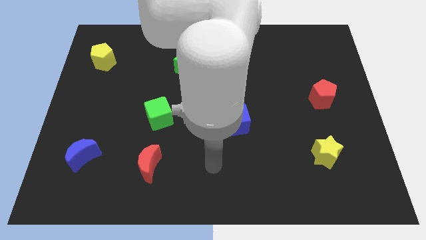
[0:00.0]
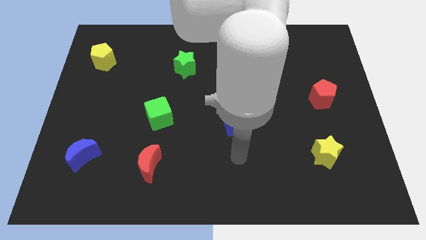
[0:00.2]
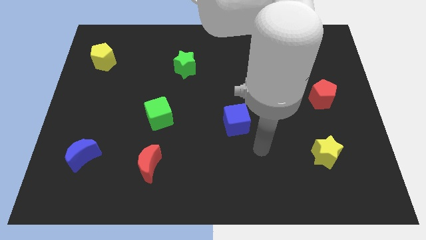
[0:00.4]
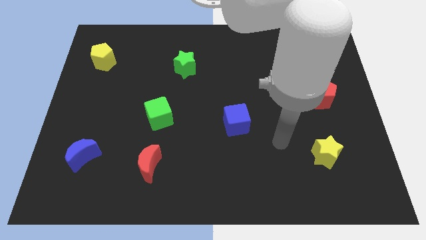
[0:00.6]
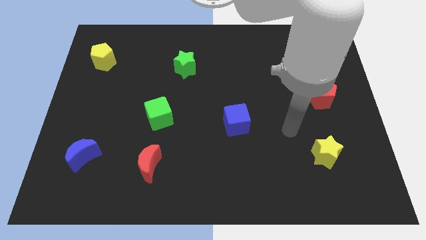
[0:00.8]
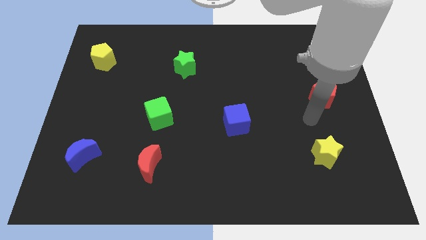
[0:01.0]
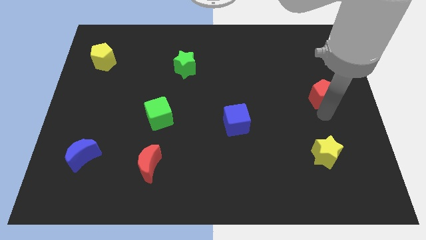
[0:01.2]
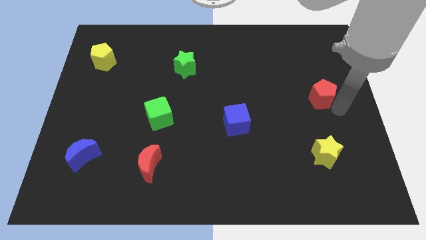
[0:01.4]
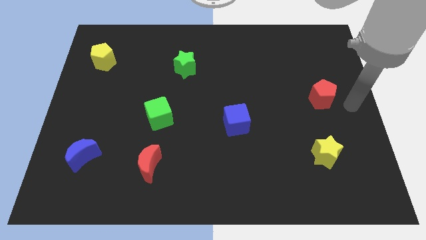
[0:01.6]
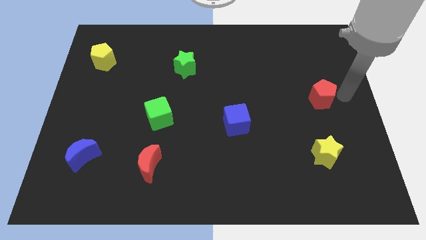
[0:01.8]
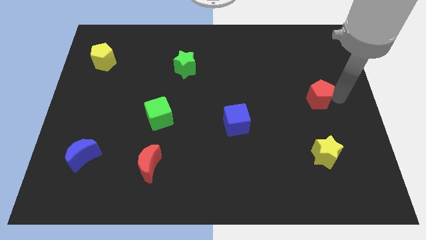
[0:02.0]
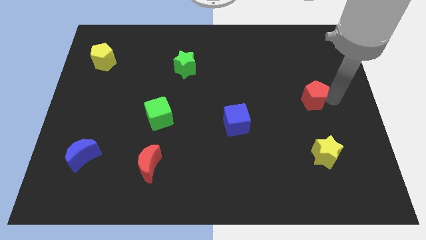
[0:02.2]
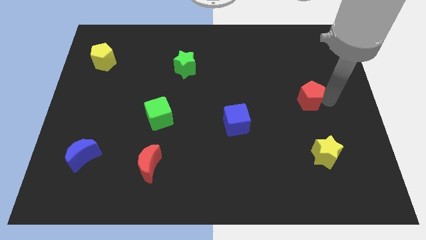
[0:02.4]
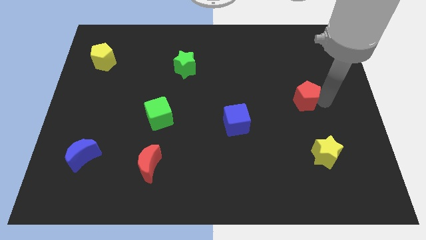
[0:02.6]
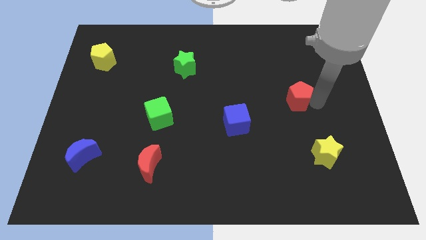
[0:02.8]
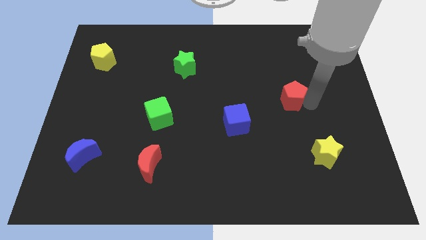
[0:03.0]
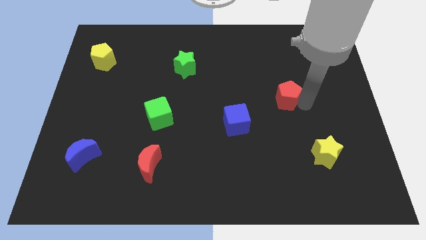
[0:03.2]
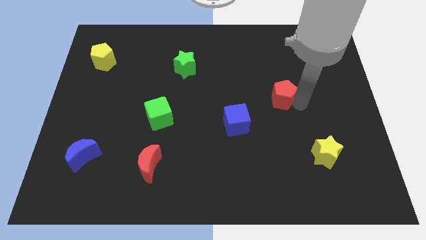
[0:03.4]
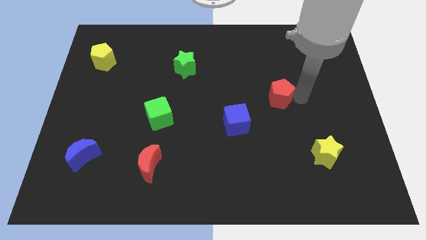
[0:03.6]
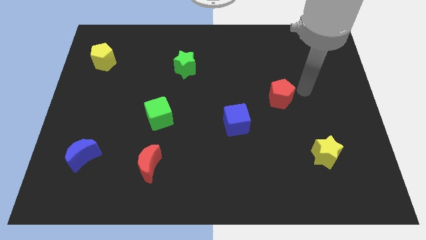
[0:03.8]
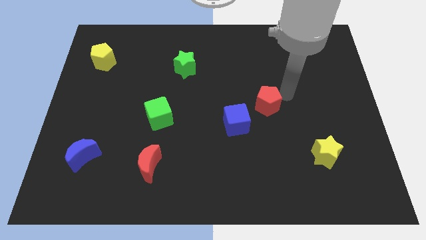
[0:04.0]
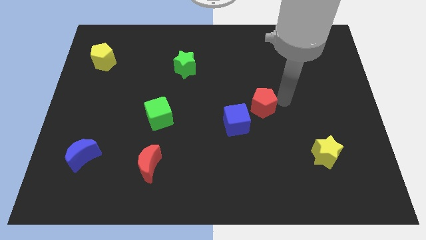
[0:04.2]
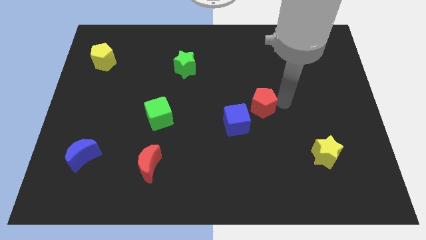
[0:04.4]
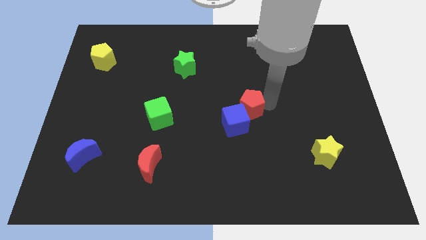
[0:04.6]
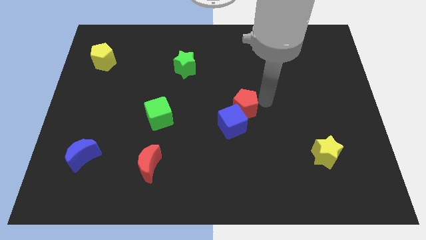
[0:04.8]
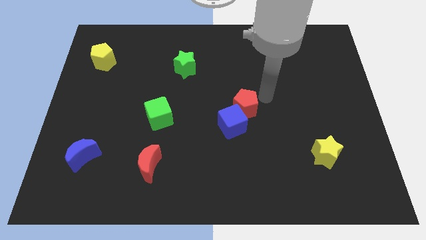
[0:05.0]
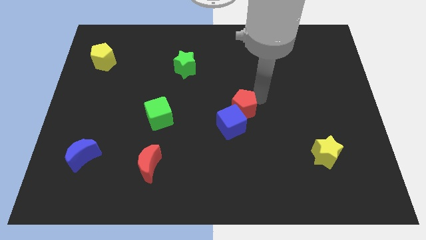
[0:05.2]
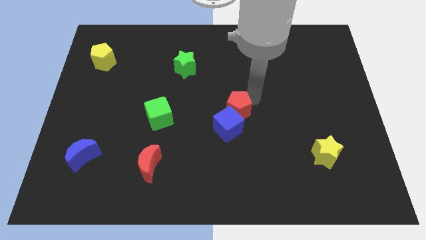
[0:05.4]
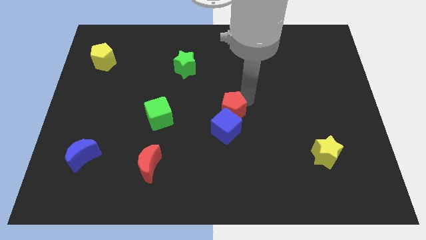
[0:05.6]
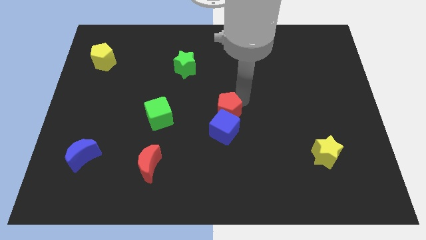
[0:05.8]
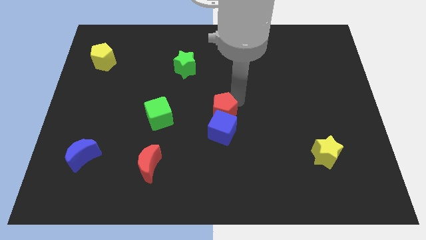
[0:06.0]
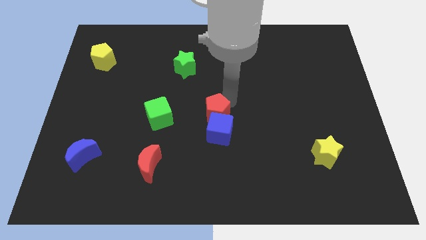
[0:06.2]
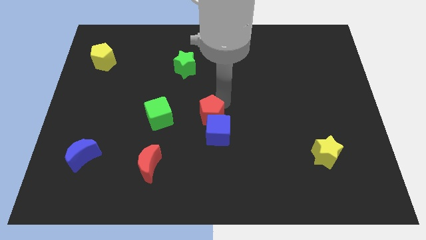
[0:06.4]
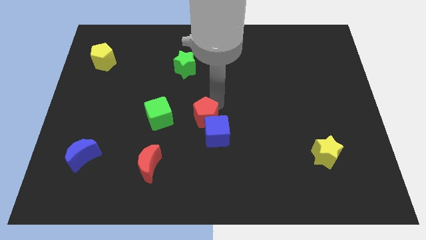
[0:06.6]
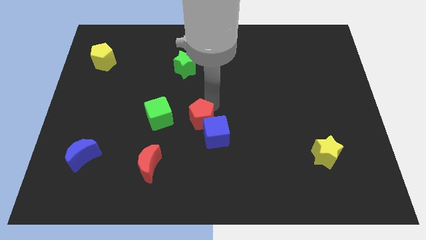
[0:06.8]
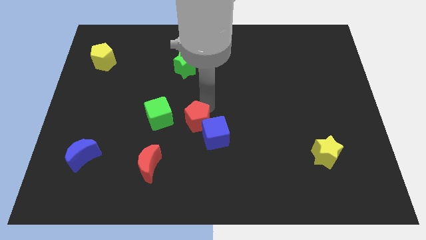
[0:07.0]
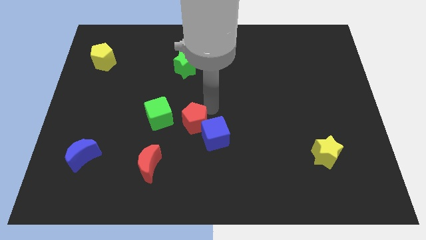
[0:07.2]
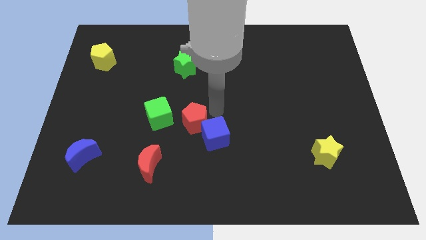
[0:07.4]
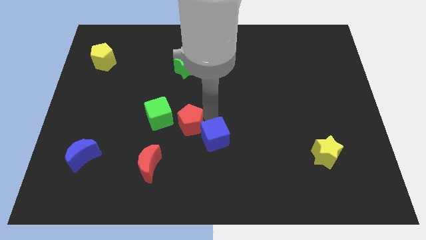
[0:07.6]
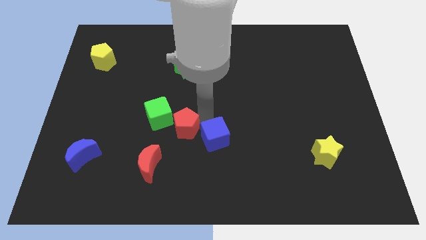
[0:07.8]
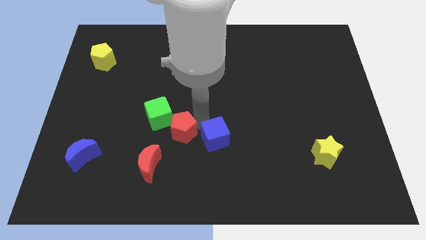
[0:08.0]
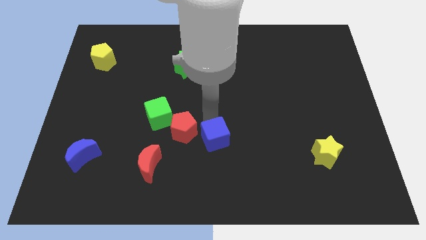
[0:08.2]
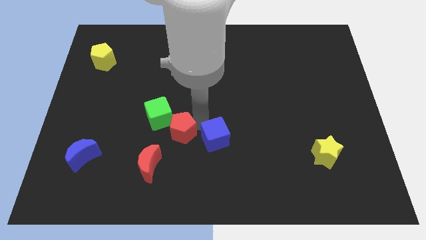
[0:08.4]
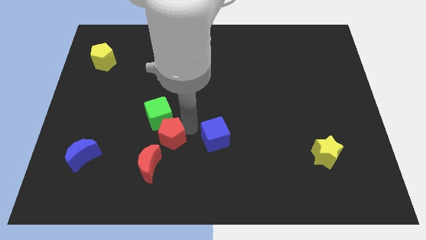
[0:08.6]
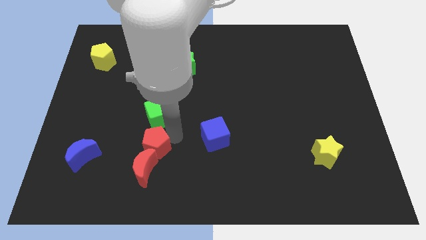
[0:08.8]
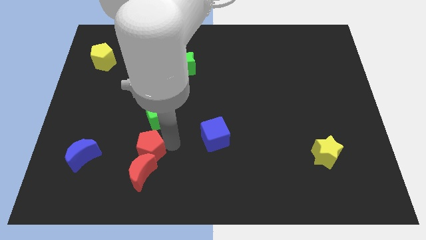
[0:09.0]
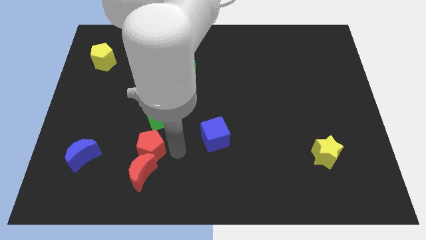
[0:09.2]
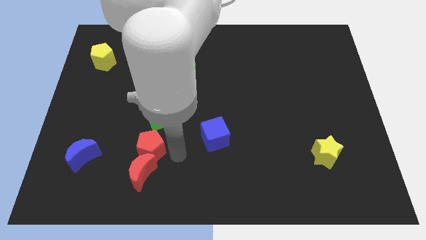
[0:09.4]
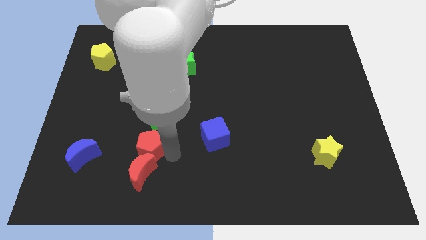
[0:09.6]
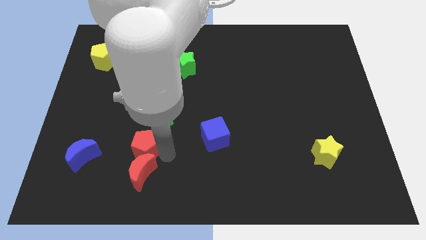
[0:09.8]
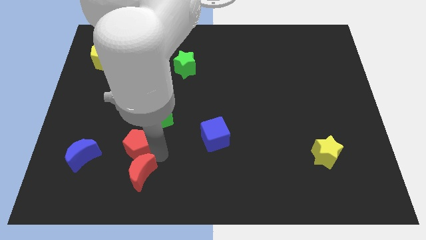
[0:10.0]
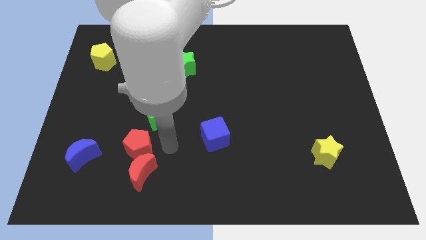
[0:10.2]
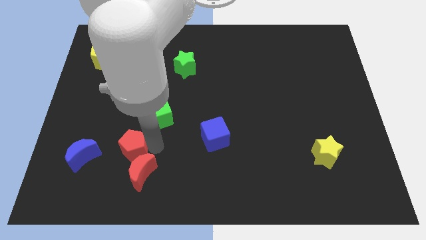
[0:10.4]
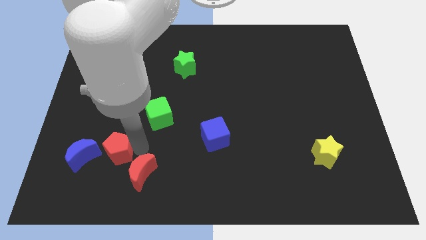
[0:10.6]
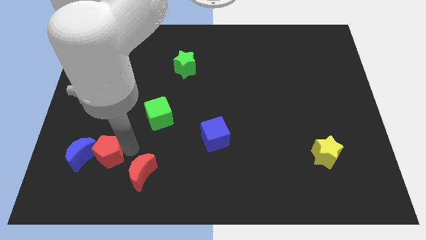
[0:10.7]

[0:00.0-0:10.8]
push the red pentagon towards the blue moon

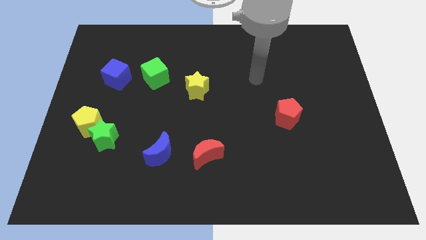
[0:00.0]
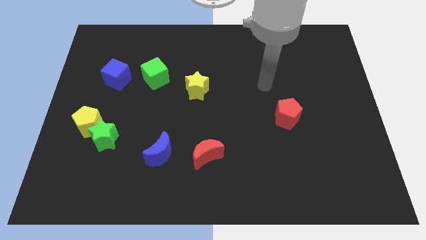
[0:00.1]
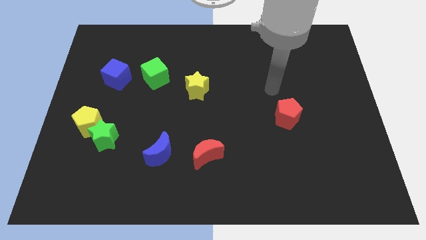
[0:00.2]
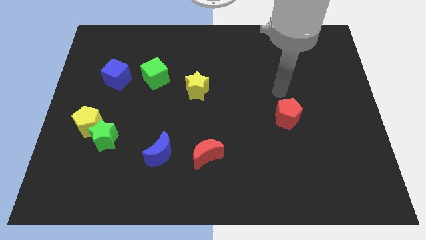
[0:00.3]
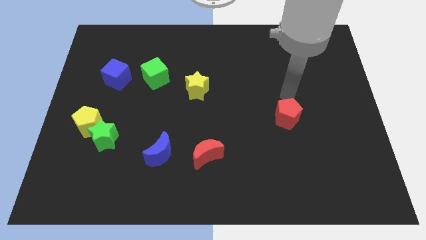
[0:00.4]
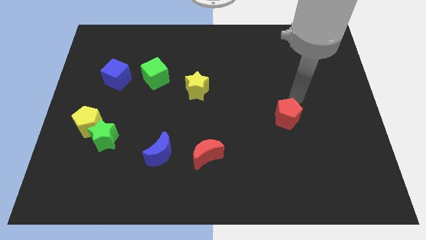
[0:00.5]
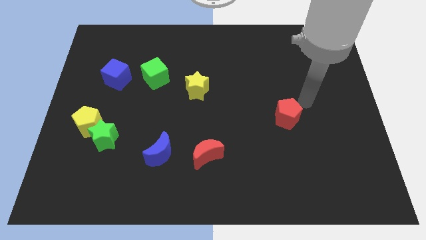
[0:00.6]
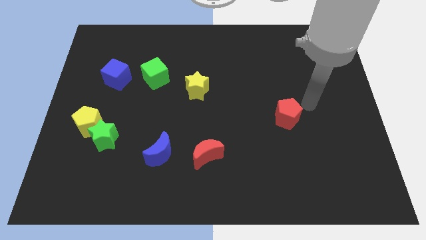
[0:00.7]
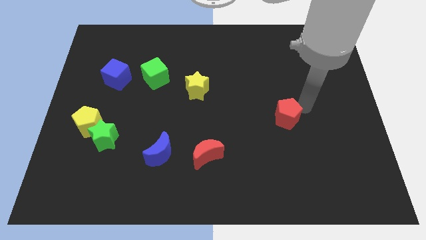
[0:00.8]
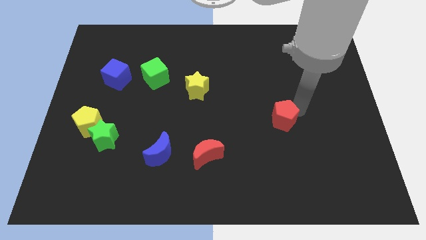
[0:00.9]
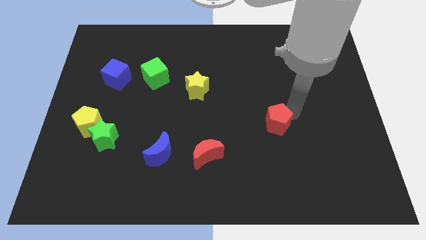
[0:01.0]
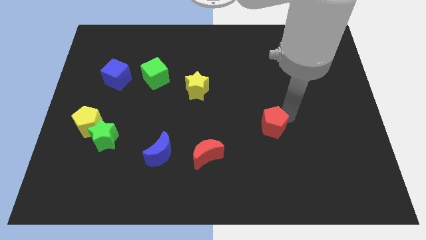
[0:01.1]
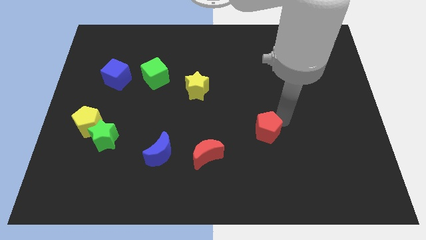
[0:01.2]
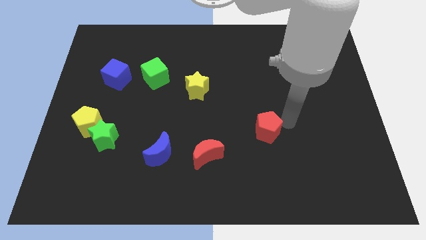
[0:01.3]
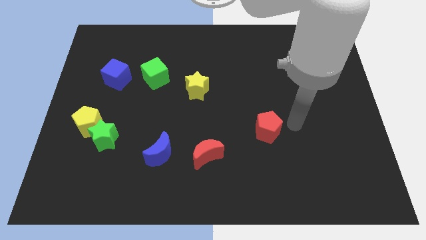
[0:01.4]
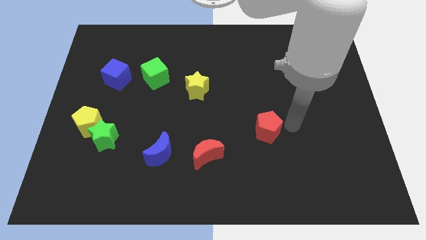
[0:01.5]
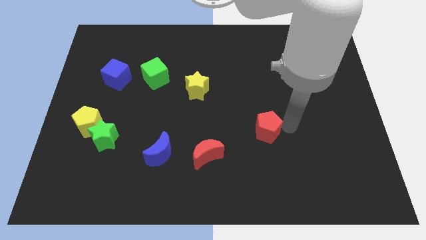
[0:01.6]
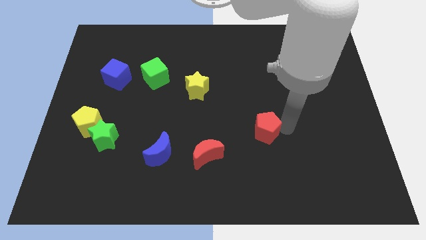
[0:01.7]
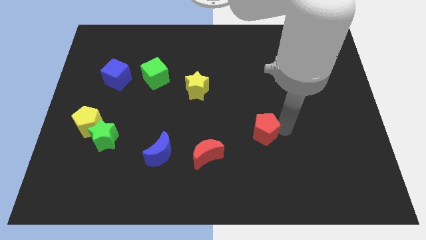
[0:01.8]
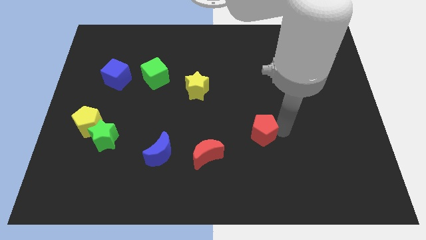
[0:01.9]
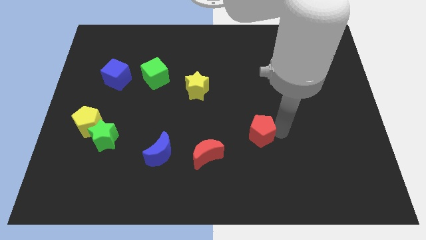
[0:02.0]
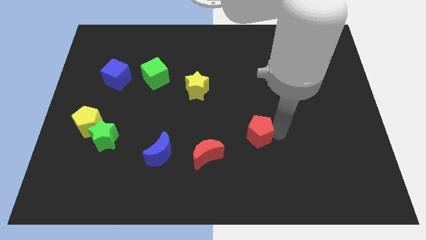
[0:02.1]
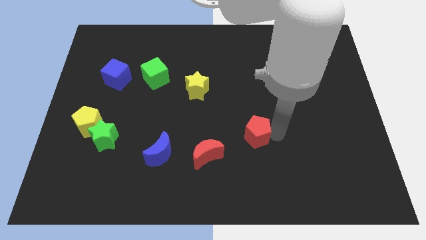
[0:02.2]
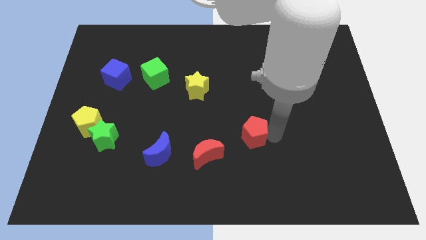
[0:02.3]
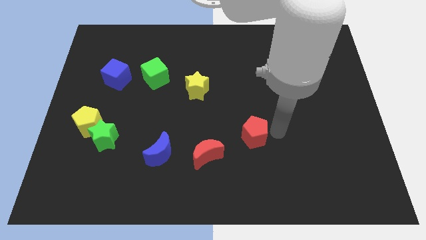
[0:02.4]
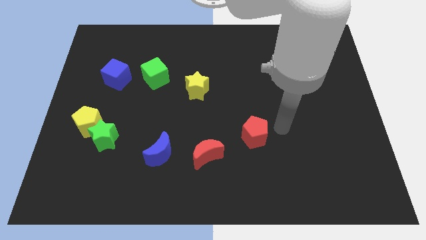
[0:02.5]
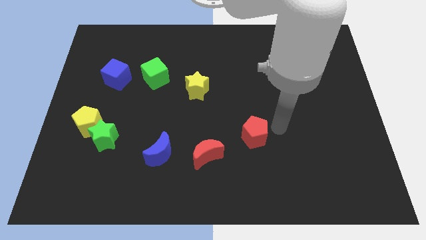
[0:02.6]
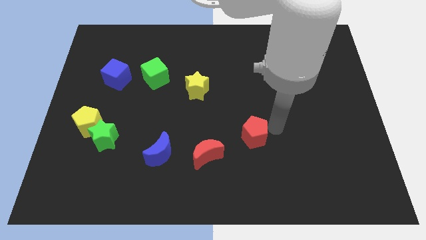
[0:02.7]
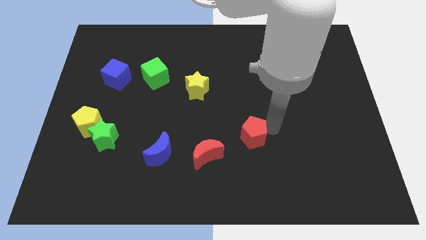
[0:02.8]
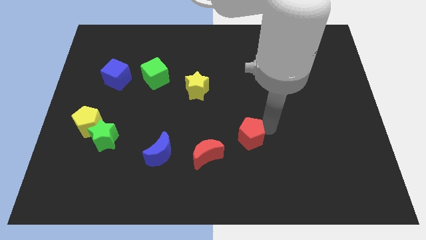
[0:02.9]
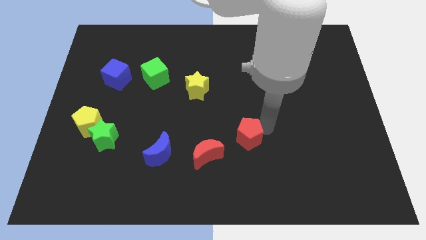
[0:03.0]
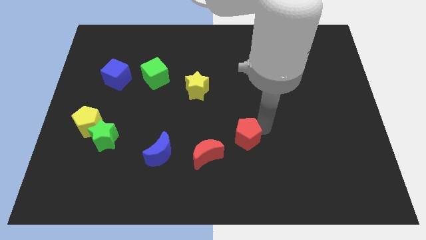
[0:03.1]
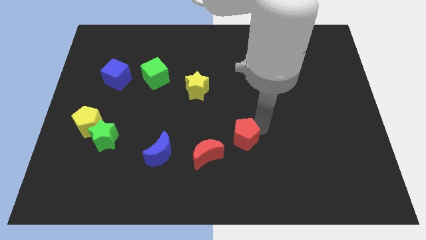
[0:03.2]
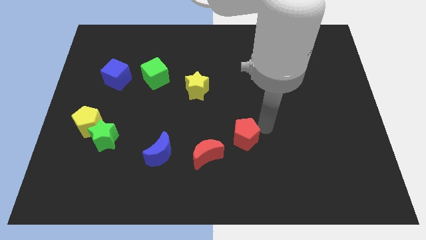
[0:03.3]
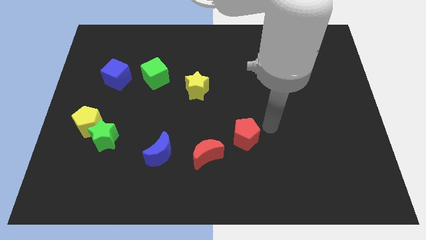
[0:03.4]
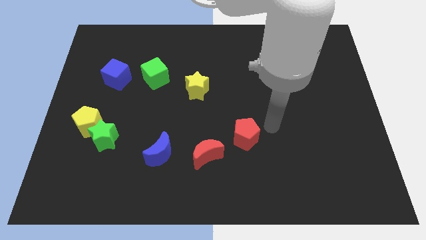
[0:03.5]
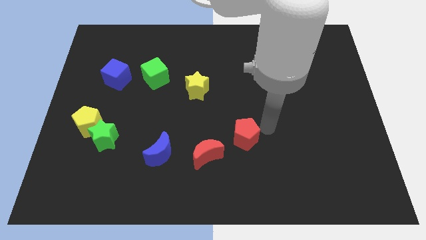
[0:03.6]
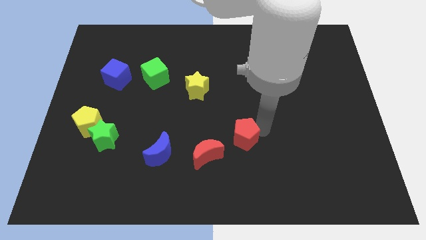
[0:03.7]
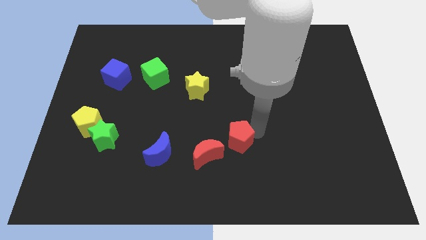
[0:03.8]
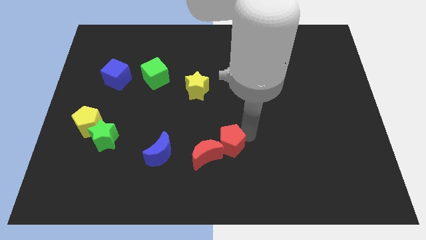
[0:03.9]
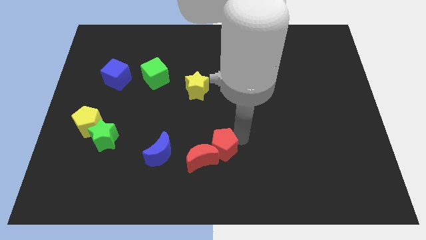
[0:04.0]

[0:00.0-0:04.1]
push the red pentagon close to the red moon
